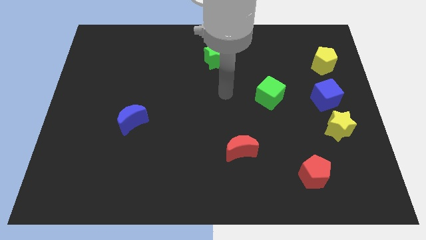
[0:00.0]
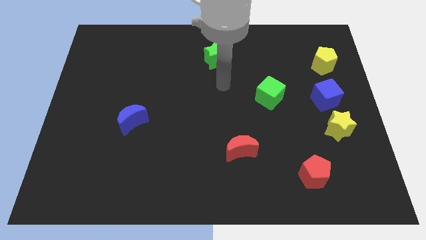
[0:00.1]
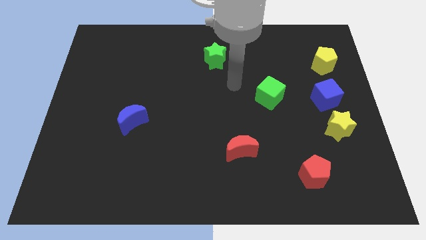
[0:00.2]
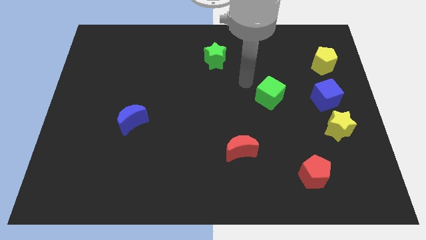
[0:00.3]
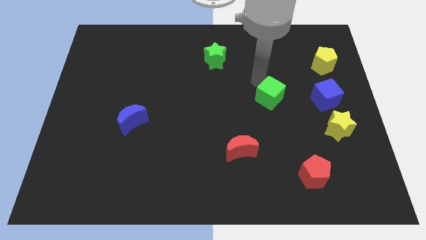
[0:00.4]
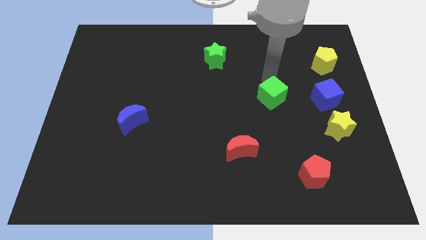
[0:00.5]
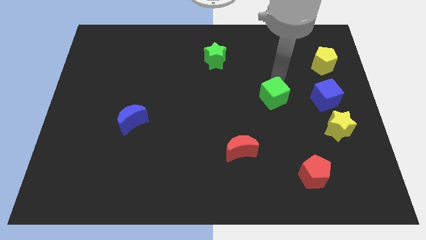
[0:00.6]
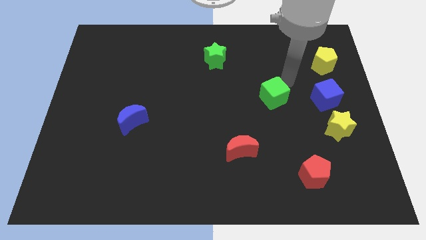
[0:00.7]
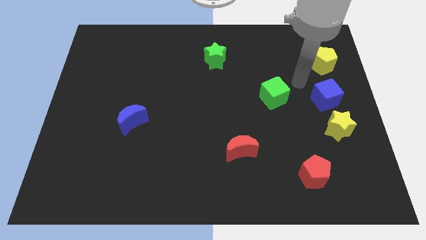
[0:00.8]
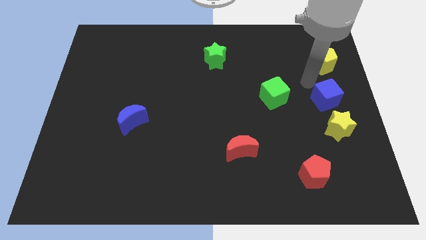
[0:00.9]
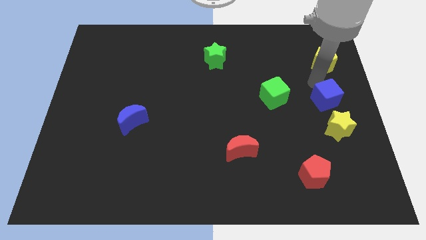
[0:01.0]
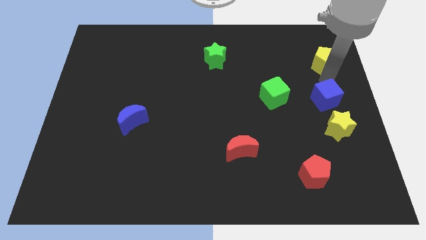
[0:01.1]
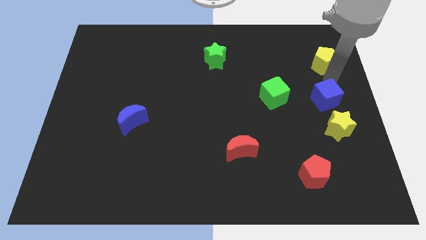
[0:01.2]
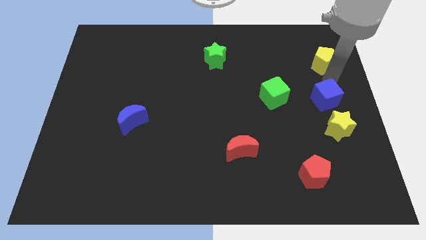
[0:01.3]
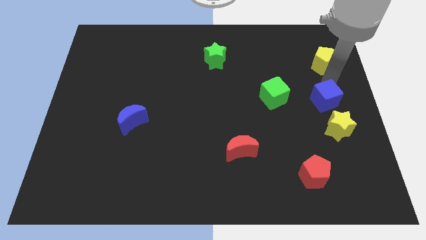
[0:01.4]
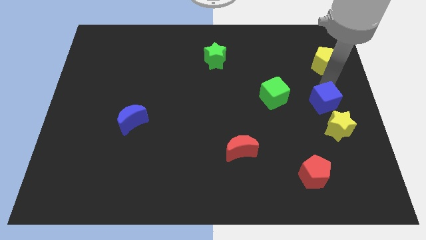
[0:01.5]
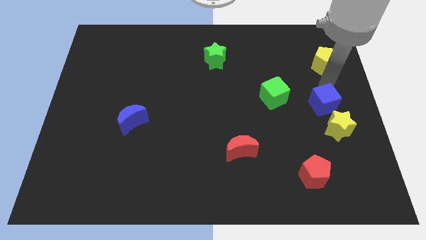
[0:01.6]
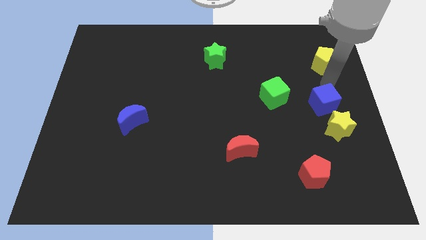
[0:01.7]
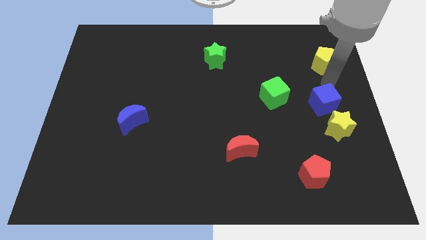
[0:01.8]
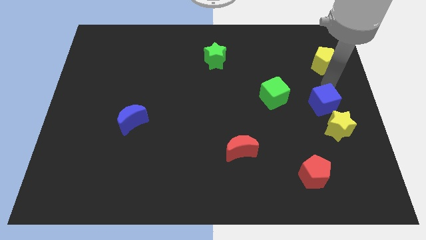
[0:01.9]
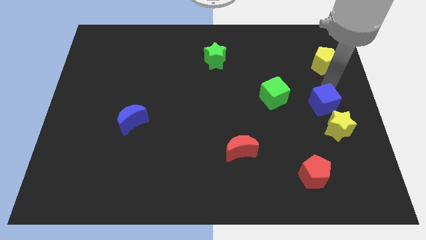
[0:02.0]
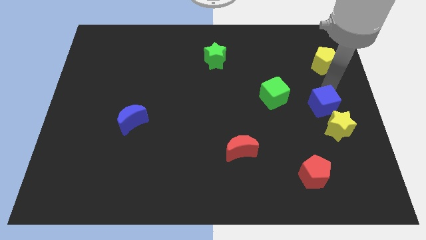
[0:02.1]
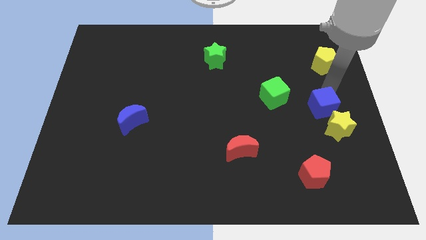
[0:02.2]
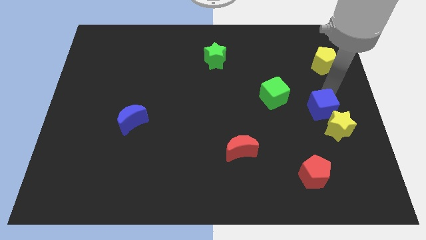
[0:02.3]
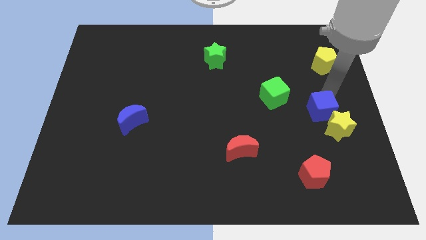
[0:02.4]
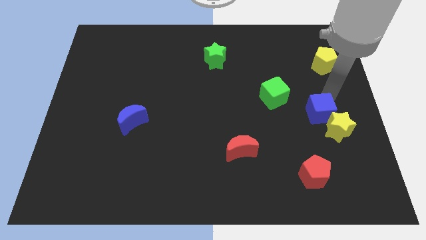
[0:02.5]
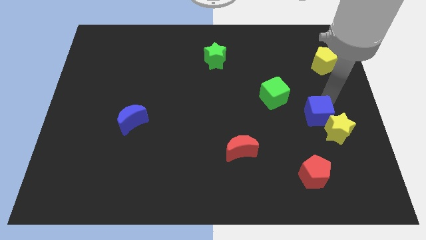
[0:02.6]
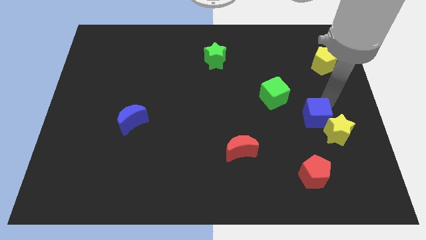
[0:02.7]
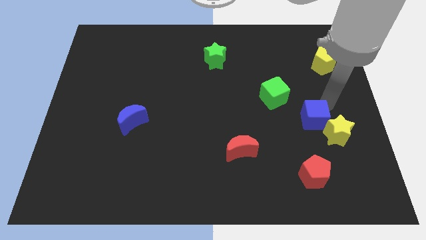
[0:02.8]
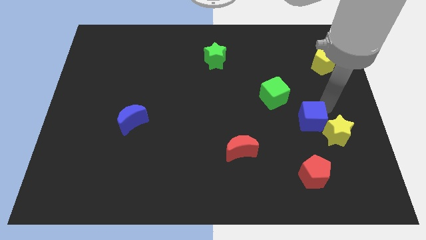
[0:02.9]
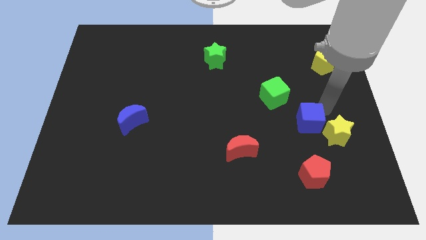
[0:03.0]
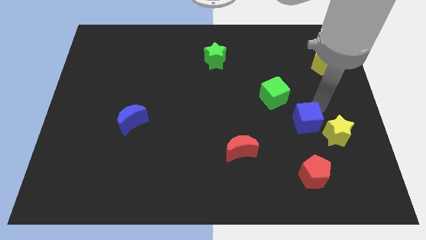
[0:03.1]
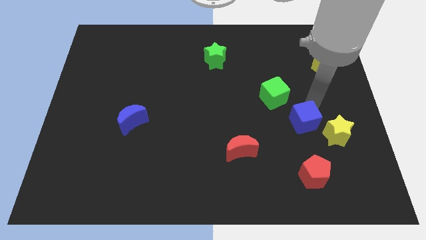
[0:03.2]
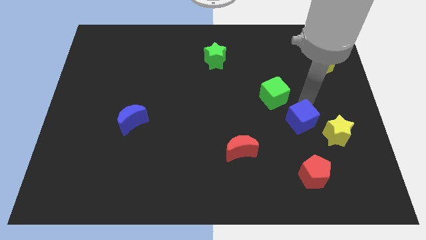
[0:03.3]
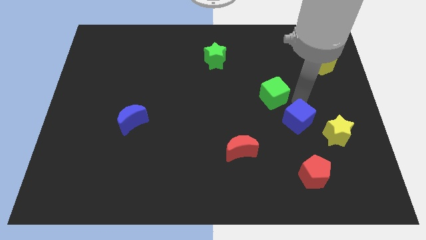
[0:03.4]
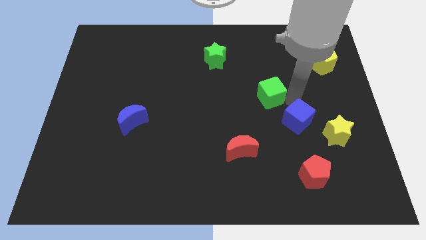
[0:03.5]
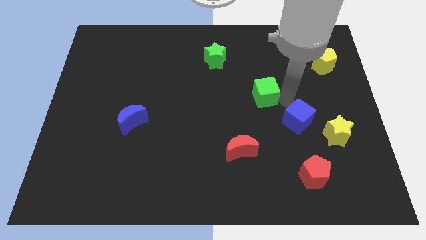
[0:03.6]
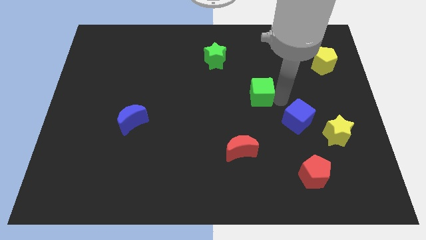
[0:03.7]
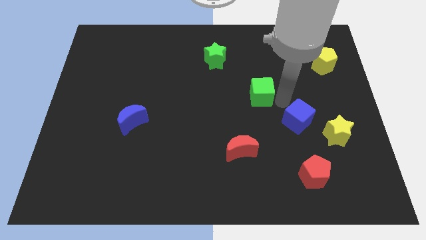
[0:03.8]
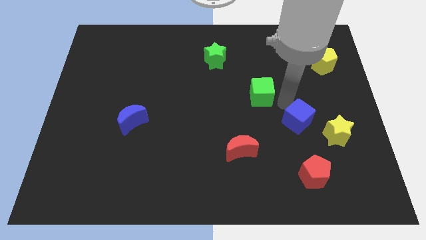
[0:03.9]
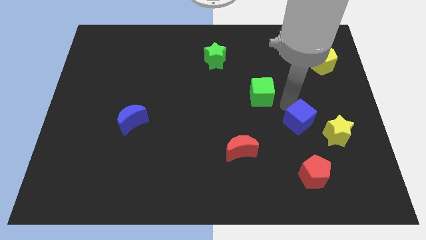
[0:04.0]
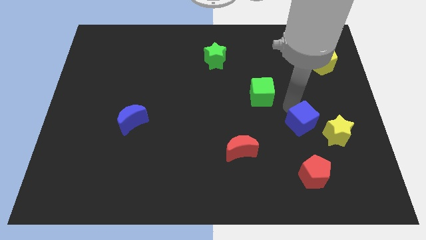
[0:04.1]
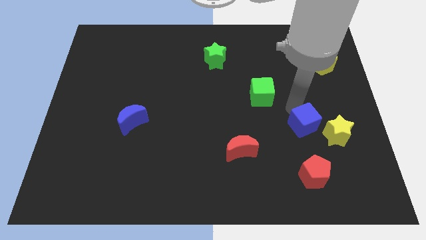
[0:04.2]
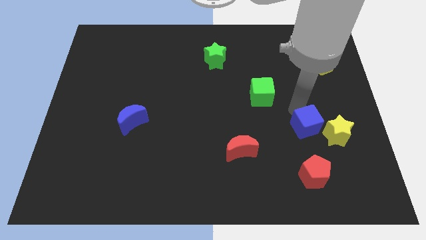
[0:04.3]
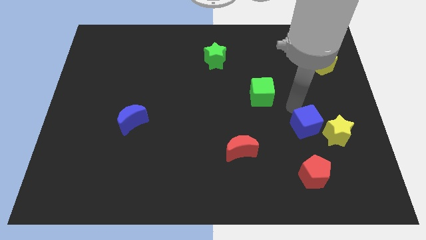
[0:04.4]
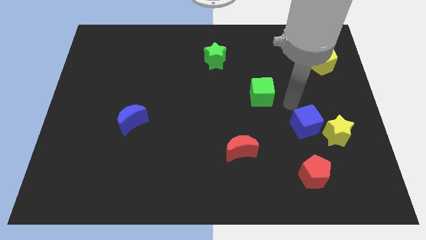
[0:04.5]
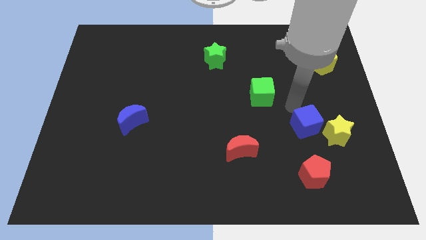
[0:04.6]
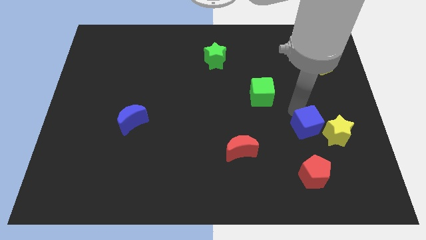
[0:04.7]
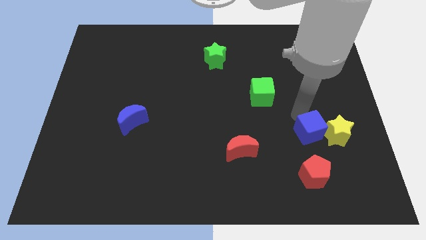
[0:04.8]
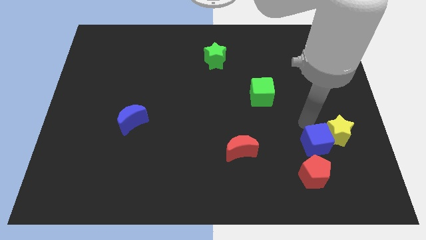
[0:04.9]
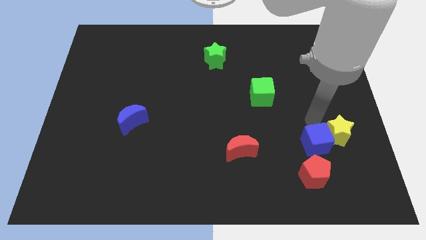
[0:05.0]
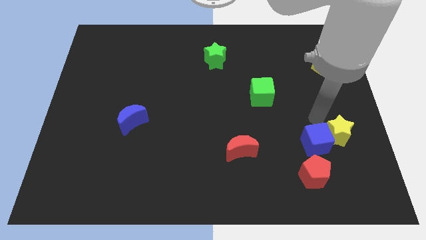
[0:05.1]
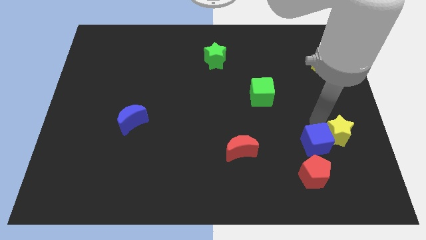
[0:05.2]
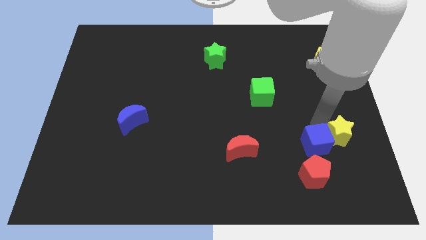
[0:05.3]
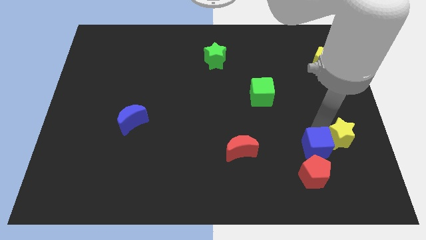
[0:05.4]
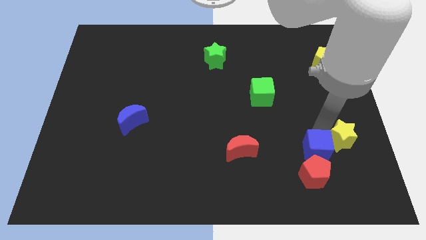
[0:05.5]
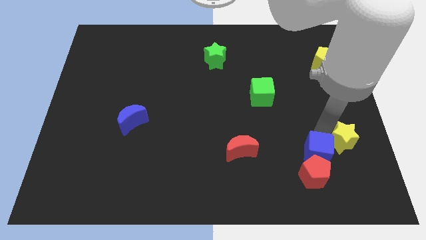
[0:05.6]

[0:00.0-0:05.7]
slide the blue cube to the red pentagon

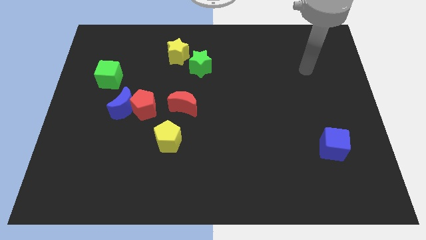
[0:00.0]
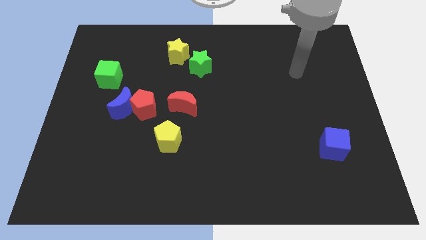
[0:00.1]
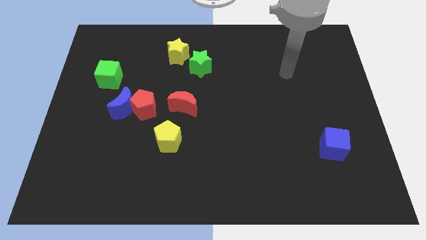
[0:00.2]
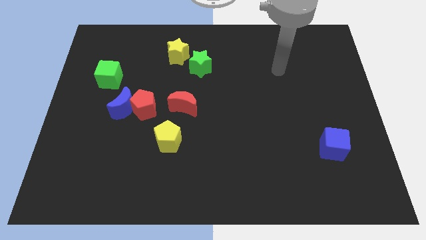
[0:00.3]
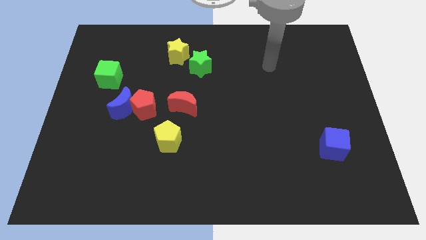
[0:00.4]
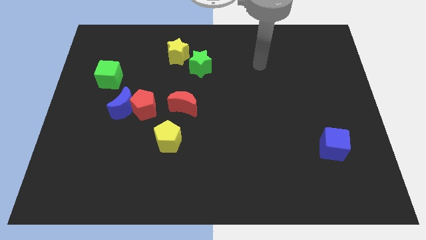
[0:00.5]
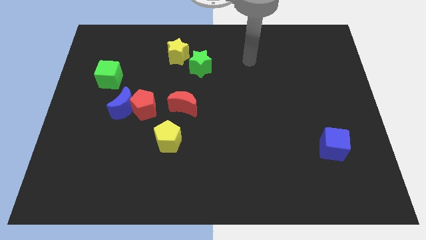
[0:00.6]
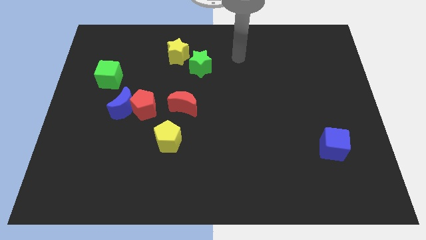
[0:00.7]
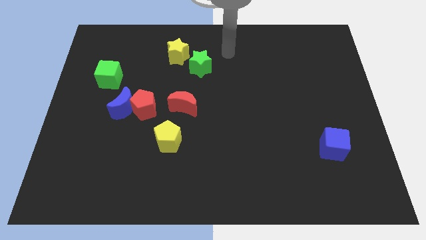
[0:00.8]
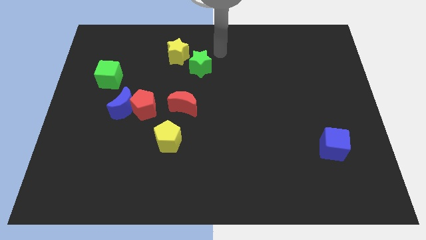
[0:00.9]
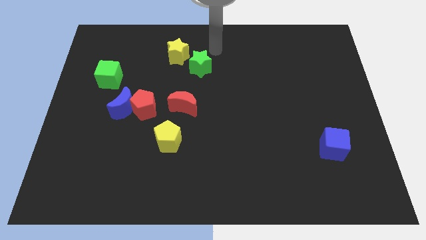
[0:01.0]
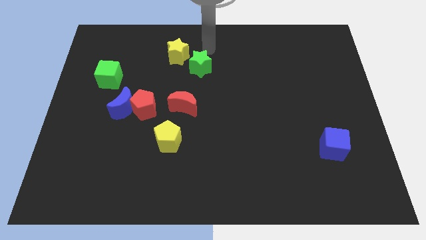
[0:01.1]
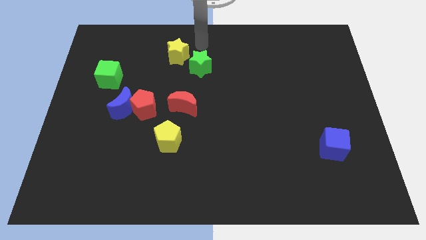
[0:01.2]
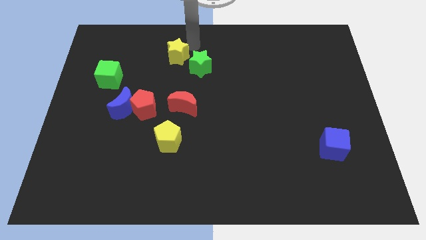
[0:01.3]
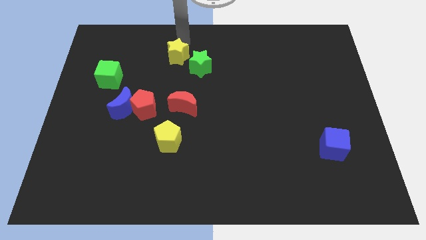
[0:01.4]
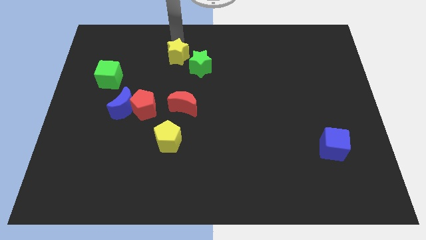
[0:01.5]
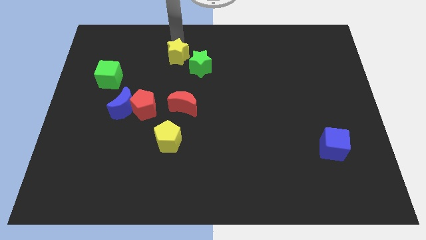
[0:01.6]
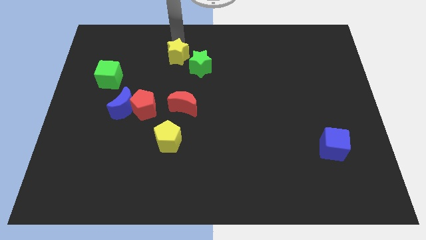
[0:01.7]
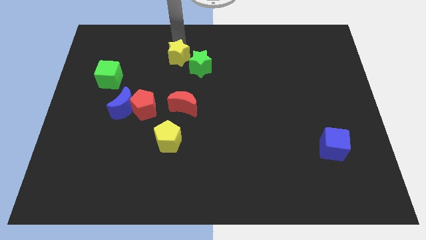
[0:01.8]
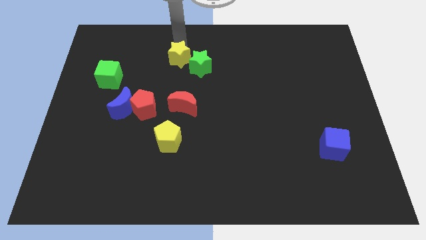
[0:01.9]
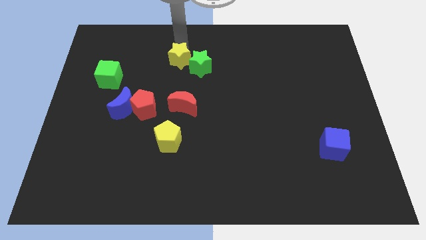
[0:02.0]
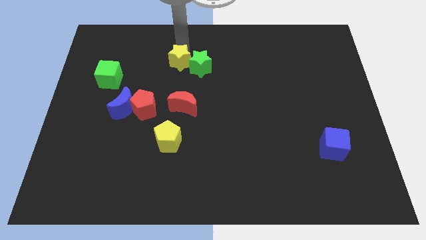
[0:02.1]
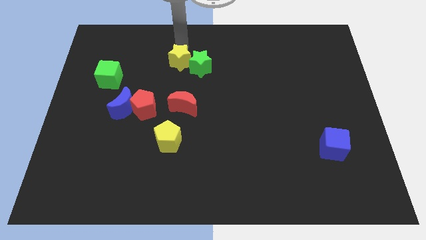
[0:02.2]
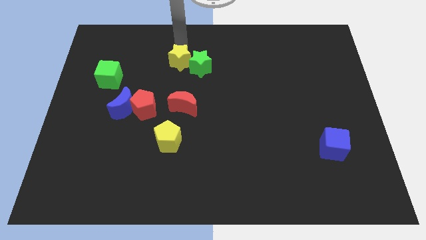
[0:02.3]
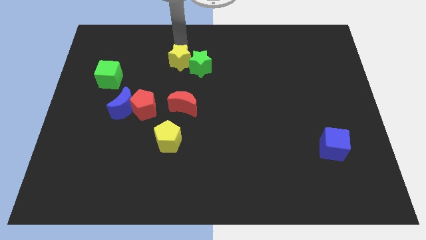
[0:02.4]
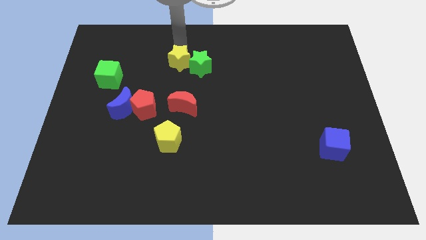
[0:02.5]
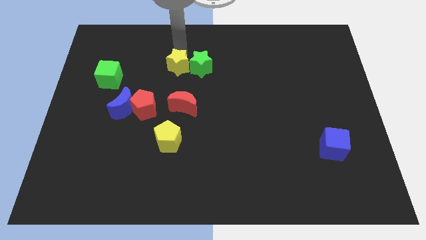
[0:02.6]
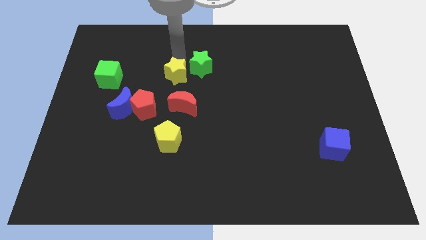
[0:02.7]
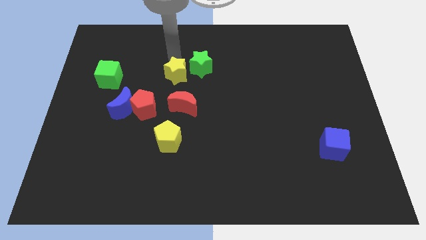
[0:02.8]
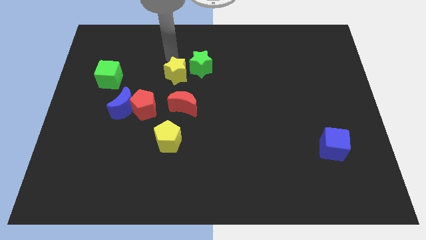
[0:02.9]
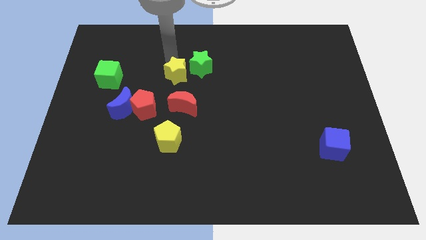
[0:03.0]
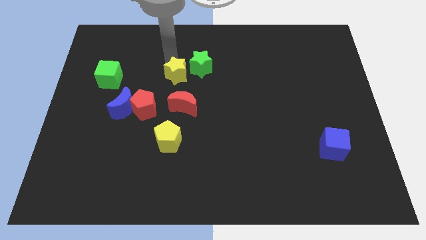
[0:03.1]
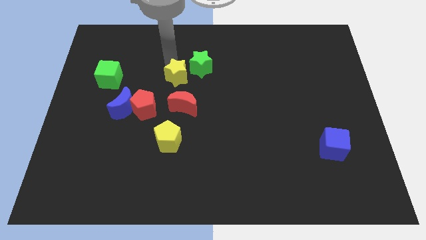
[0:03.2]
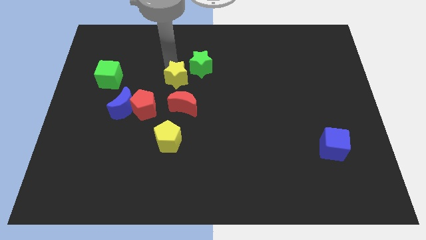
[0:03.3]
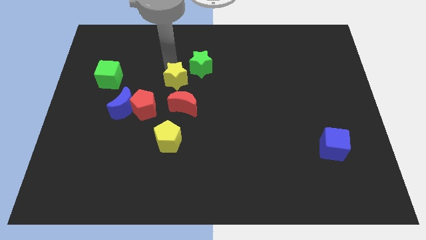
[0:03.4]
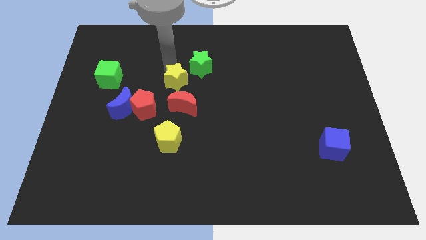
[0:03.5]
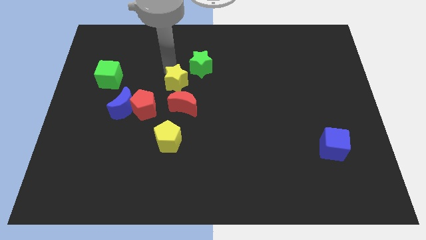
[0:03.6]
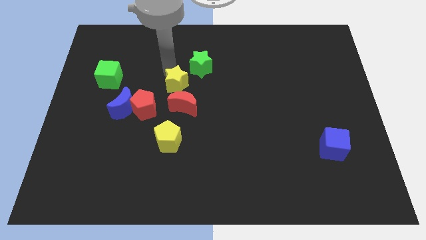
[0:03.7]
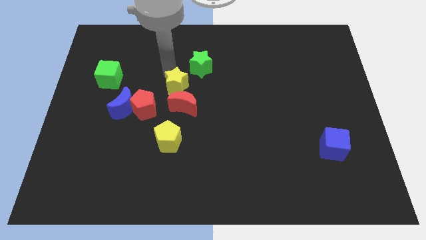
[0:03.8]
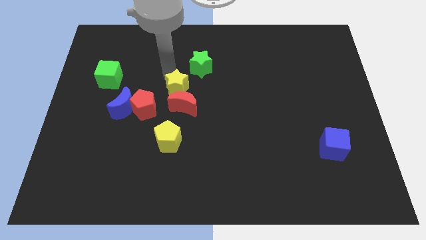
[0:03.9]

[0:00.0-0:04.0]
slide the yellow star towards the red moon
